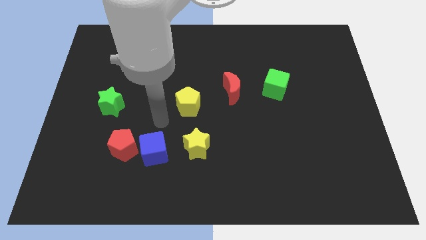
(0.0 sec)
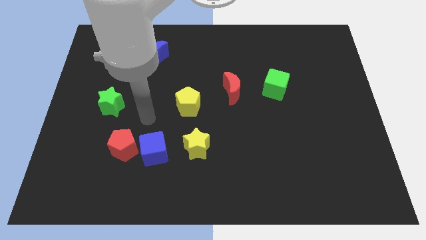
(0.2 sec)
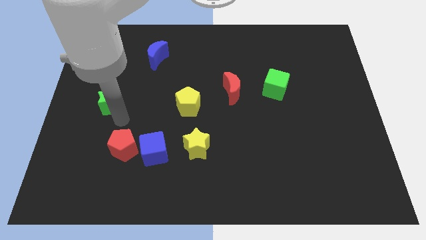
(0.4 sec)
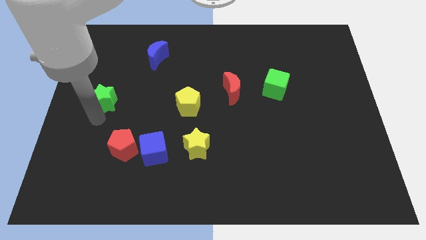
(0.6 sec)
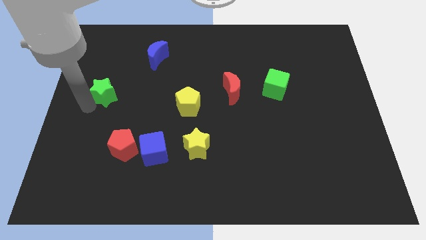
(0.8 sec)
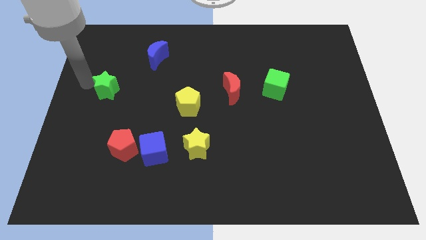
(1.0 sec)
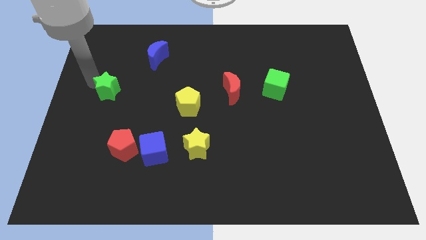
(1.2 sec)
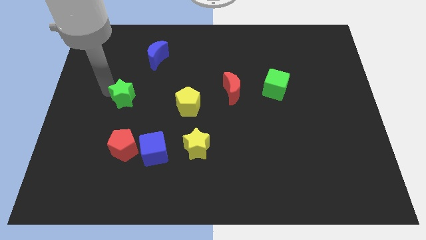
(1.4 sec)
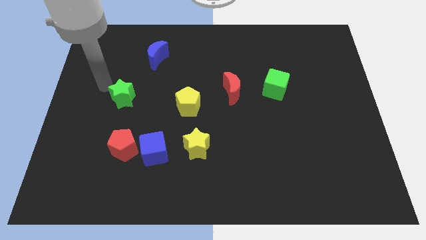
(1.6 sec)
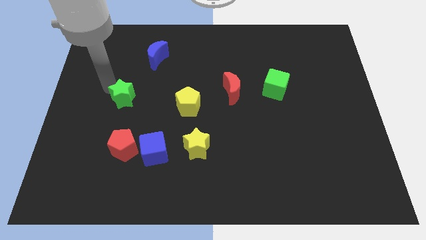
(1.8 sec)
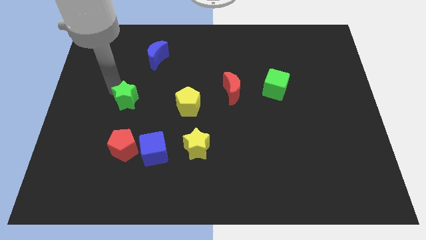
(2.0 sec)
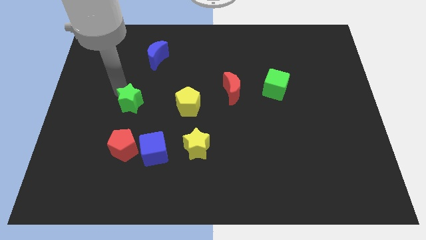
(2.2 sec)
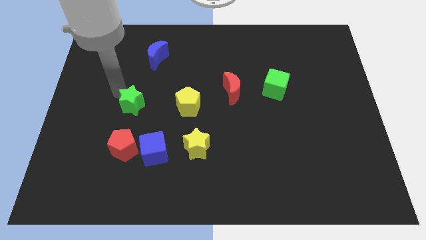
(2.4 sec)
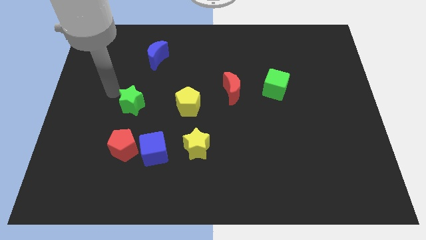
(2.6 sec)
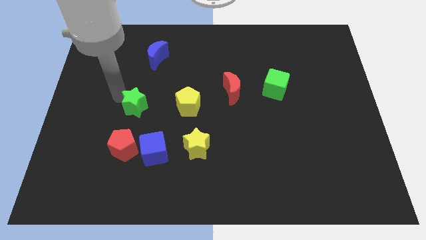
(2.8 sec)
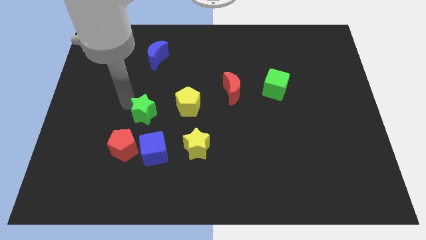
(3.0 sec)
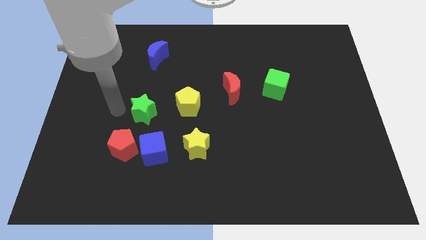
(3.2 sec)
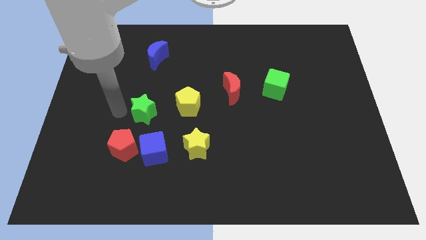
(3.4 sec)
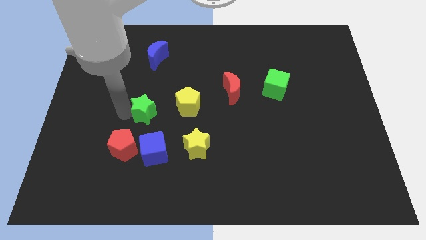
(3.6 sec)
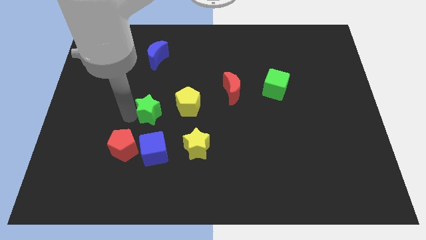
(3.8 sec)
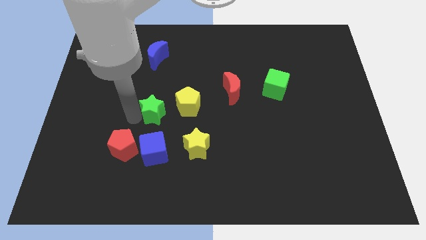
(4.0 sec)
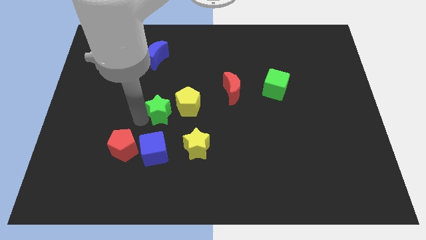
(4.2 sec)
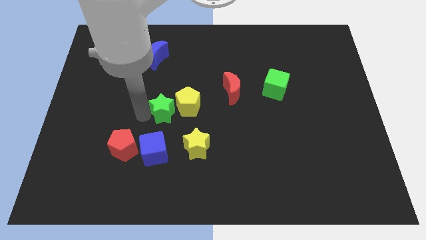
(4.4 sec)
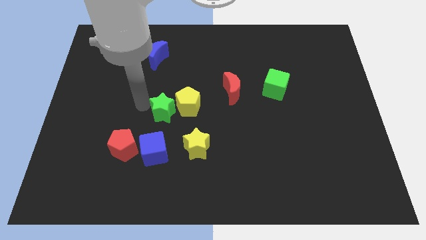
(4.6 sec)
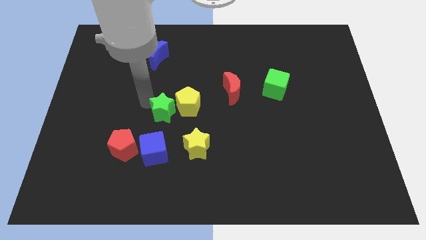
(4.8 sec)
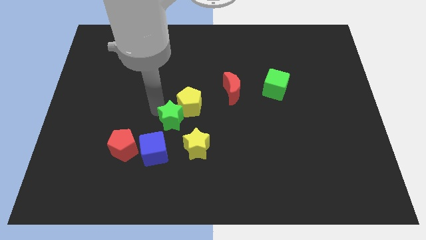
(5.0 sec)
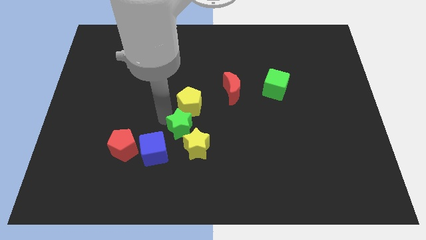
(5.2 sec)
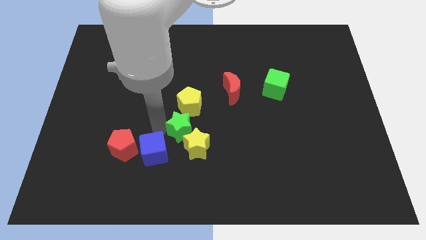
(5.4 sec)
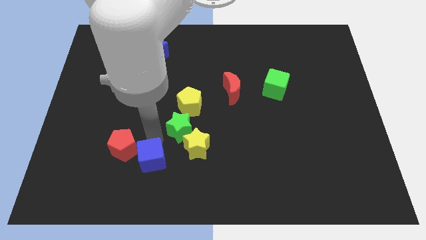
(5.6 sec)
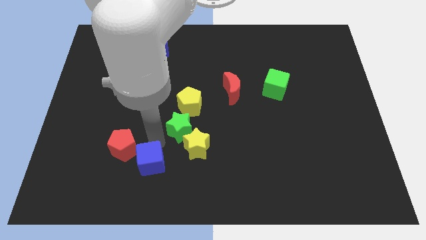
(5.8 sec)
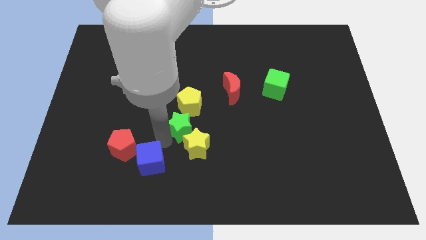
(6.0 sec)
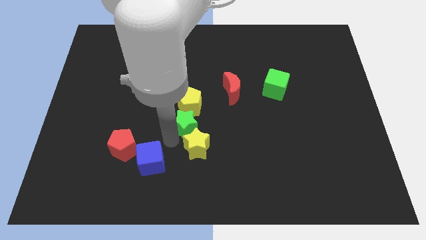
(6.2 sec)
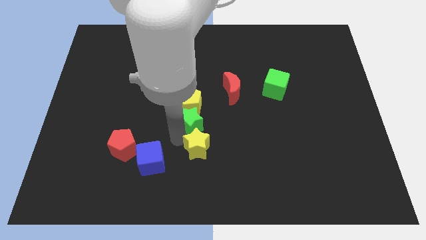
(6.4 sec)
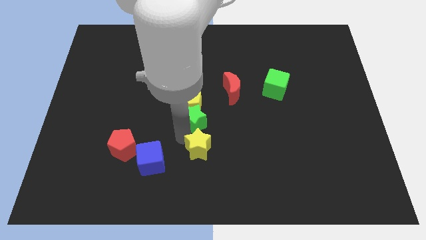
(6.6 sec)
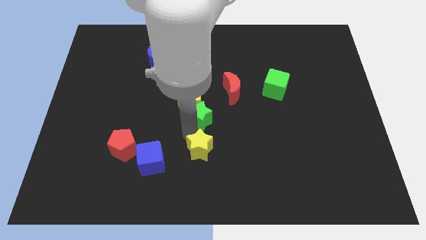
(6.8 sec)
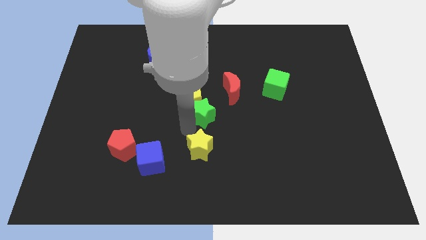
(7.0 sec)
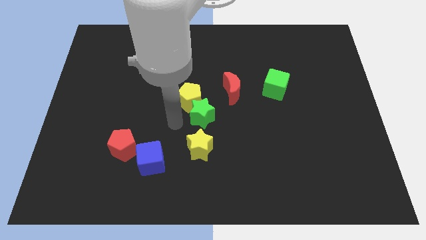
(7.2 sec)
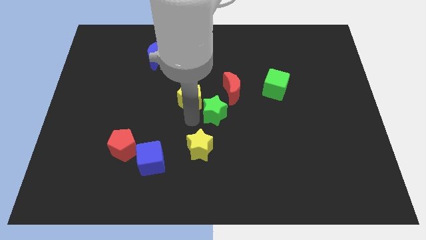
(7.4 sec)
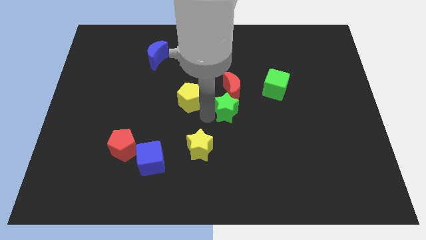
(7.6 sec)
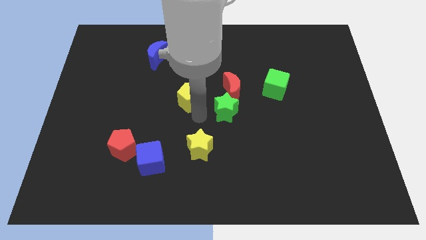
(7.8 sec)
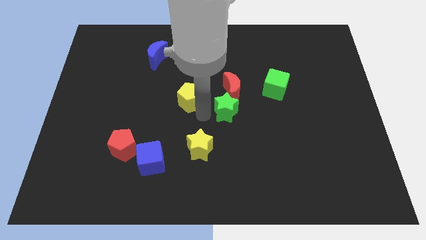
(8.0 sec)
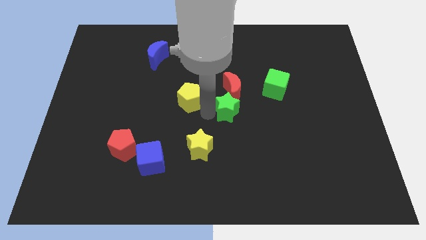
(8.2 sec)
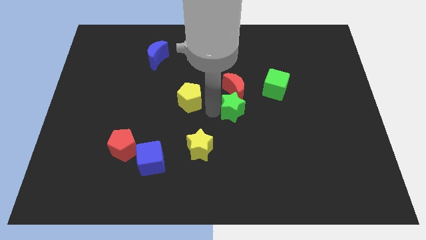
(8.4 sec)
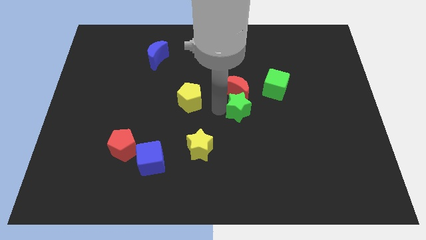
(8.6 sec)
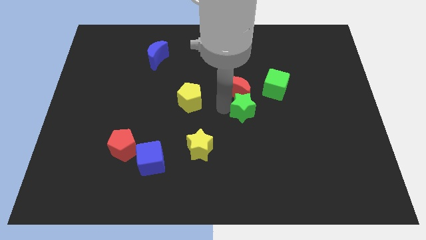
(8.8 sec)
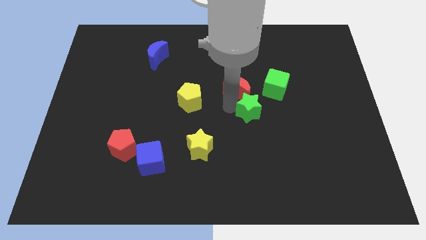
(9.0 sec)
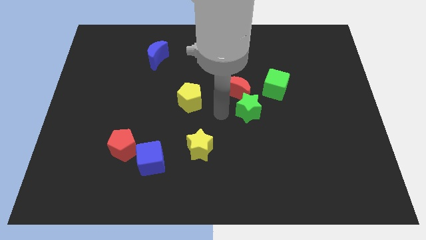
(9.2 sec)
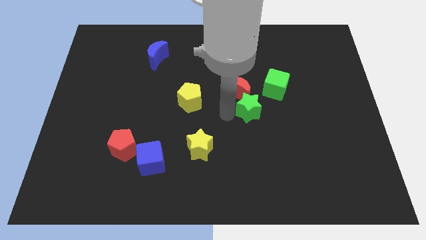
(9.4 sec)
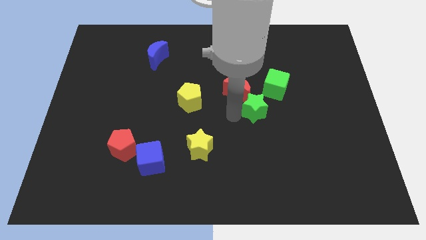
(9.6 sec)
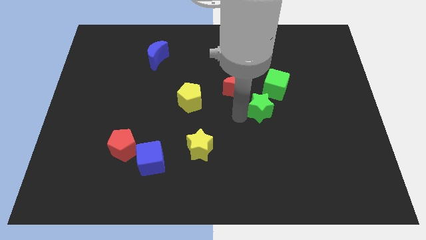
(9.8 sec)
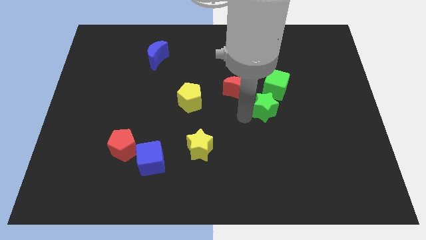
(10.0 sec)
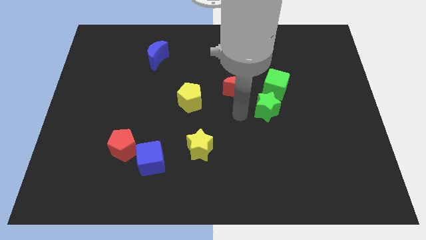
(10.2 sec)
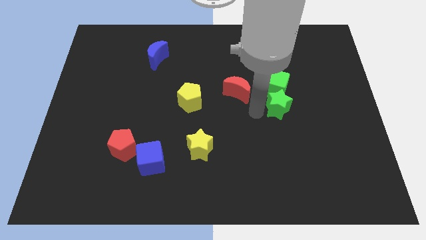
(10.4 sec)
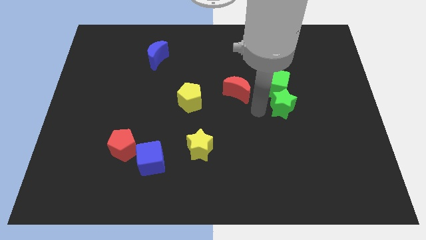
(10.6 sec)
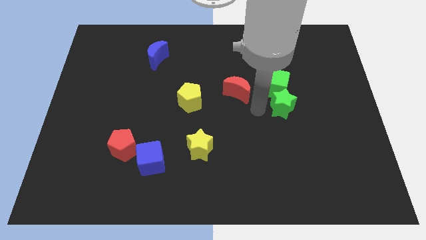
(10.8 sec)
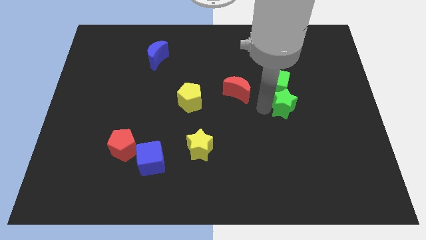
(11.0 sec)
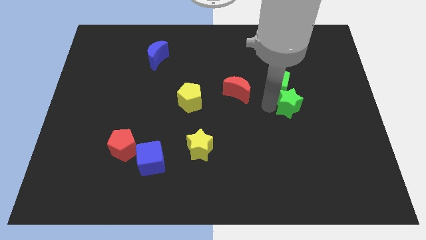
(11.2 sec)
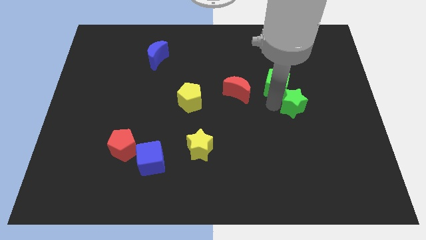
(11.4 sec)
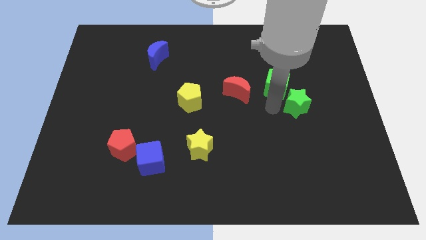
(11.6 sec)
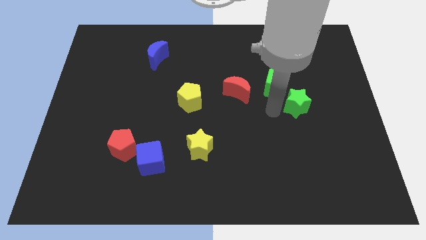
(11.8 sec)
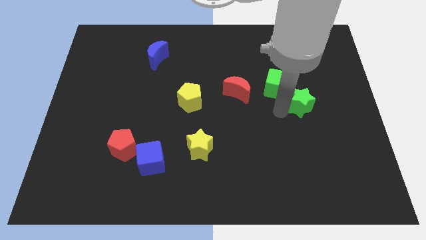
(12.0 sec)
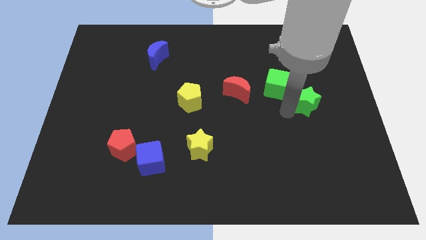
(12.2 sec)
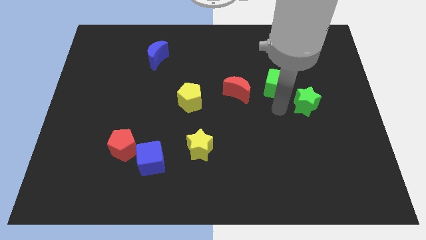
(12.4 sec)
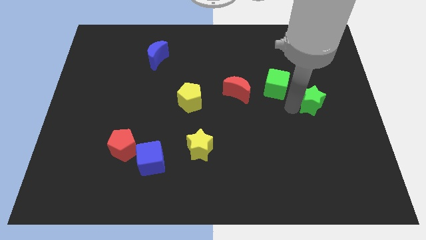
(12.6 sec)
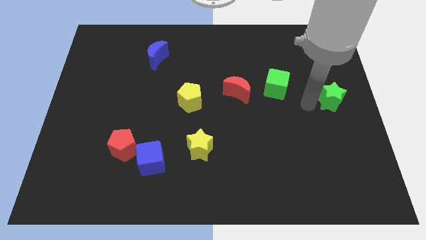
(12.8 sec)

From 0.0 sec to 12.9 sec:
put the green star to the center right

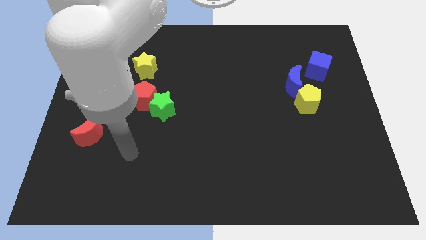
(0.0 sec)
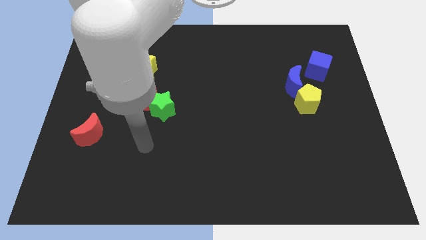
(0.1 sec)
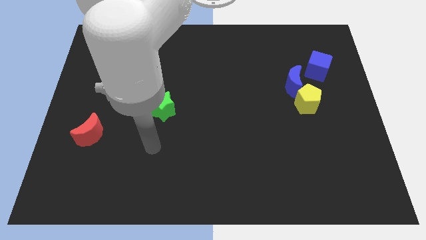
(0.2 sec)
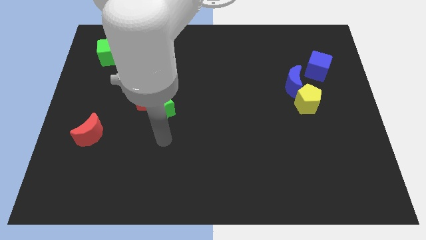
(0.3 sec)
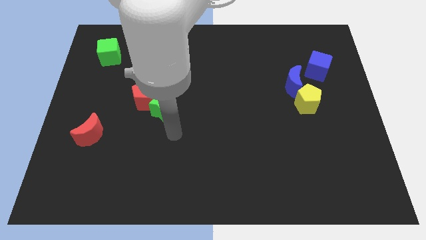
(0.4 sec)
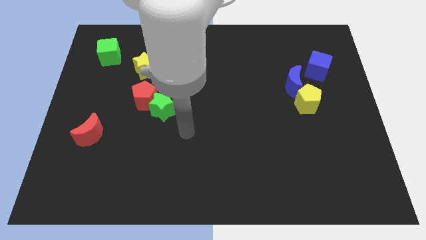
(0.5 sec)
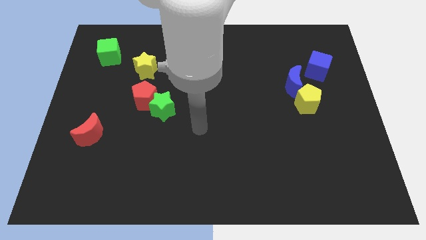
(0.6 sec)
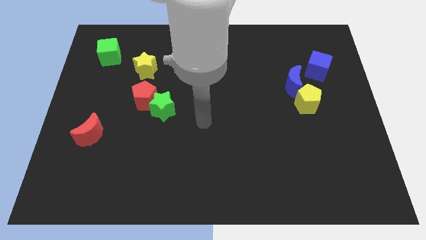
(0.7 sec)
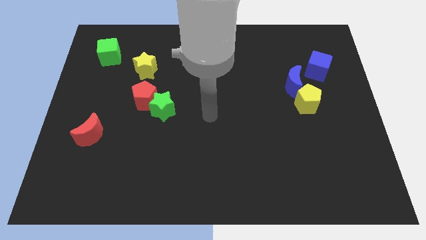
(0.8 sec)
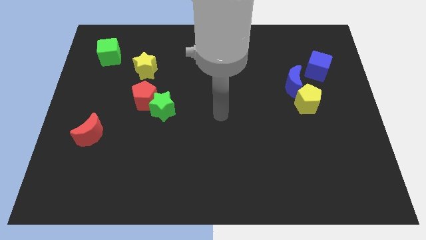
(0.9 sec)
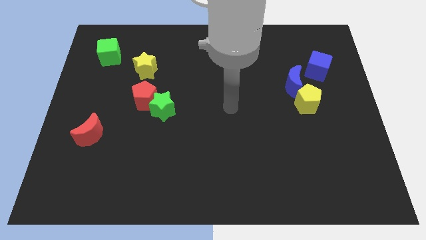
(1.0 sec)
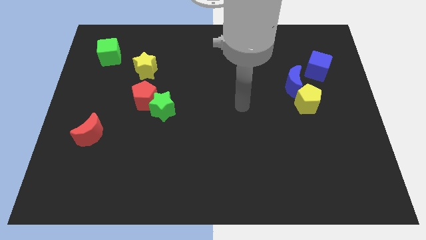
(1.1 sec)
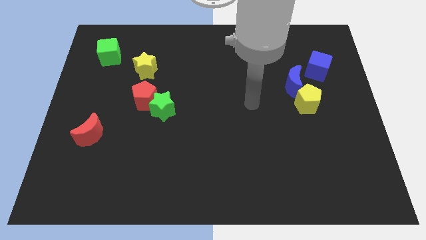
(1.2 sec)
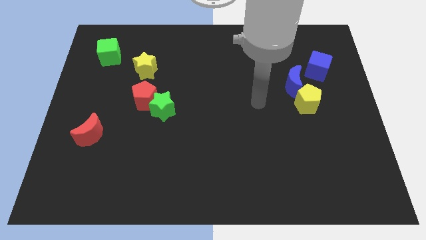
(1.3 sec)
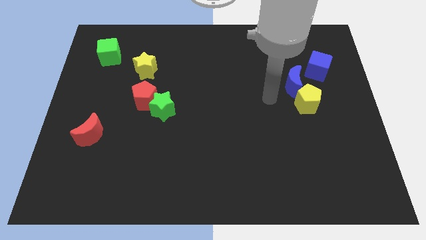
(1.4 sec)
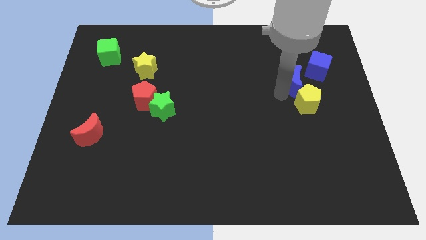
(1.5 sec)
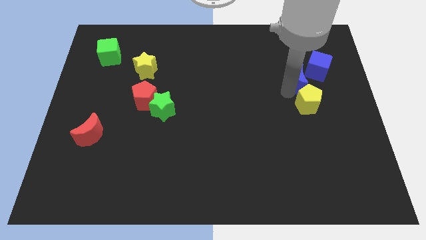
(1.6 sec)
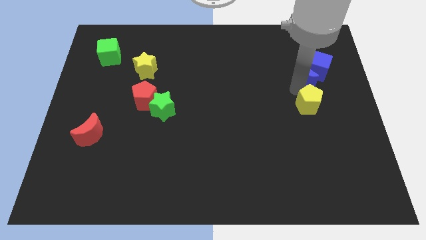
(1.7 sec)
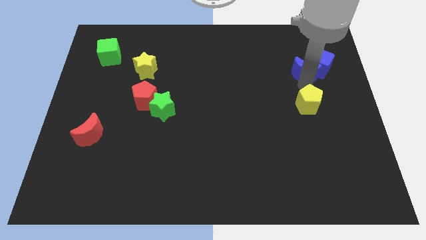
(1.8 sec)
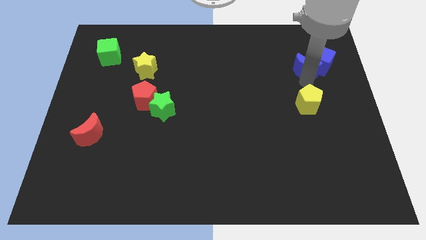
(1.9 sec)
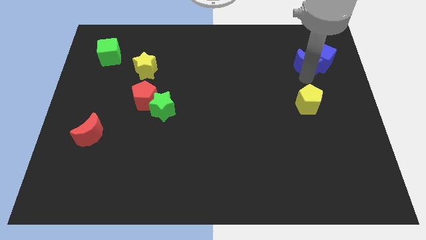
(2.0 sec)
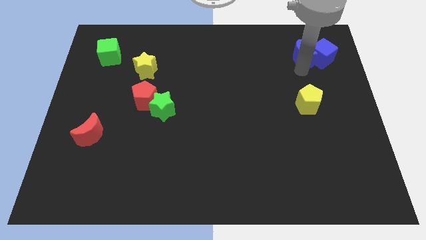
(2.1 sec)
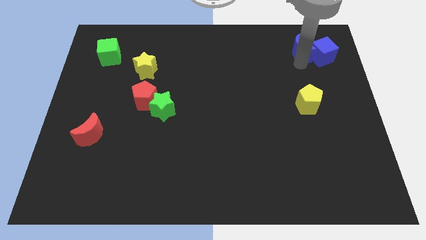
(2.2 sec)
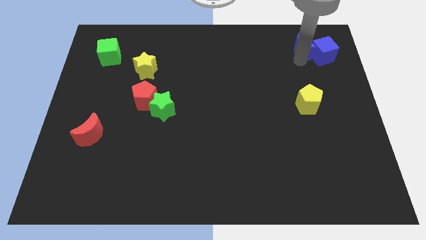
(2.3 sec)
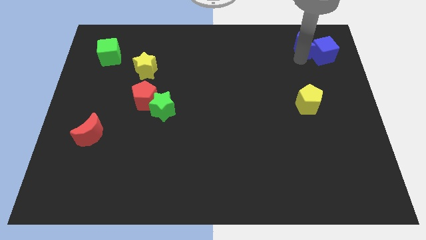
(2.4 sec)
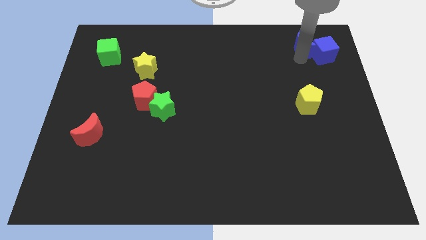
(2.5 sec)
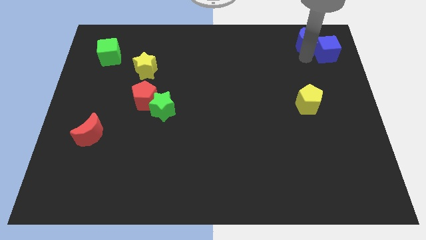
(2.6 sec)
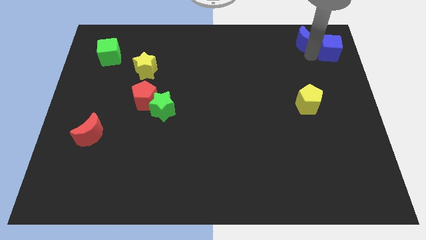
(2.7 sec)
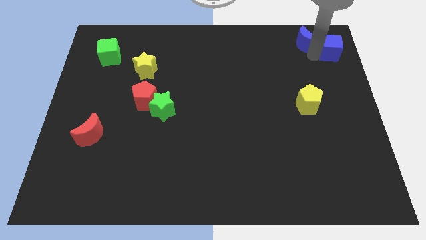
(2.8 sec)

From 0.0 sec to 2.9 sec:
put the blue cube to the upper right corner
